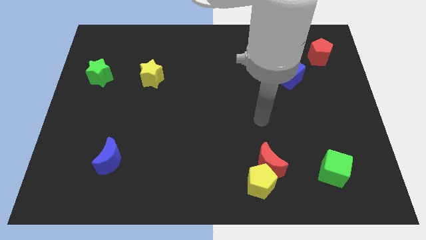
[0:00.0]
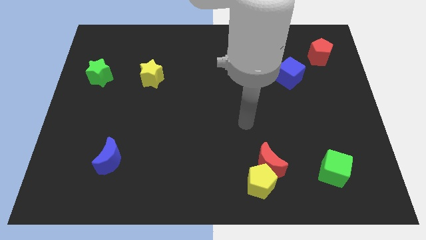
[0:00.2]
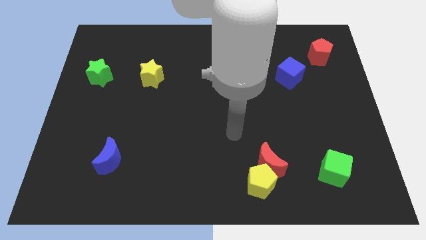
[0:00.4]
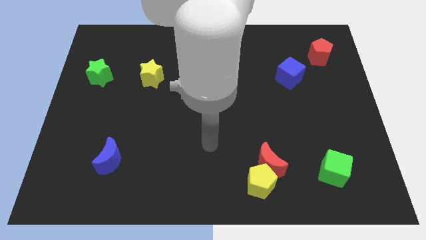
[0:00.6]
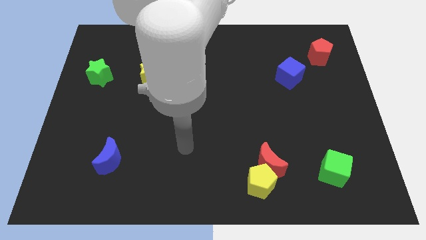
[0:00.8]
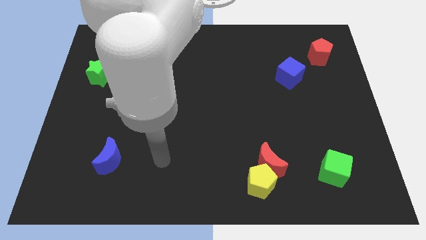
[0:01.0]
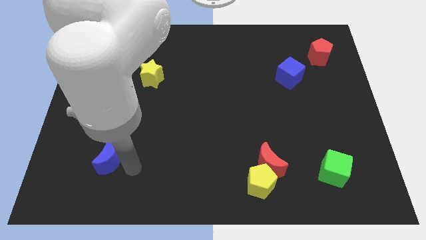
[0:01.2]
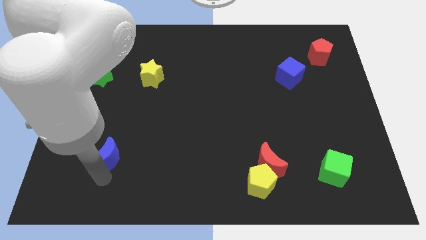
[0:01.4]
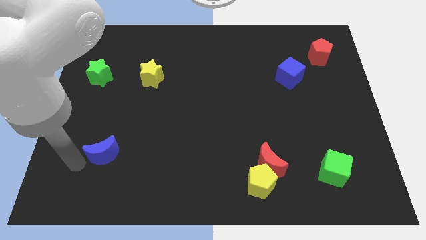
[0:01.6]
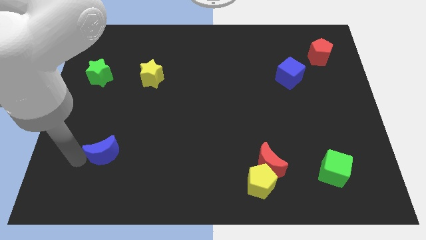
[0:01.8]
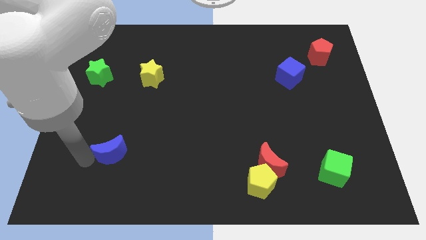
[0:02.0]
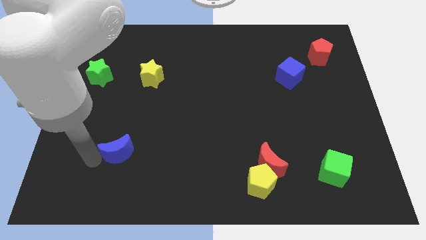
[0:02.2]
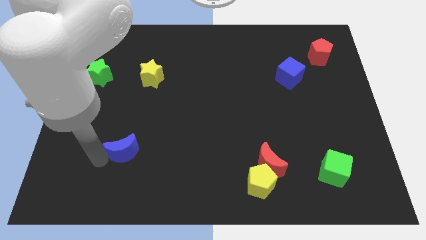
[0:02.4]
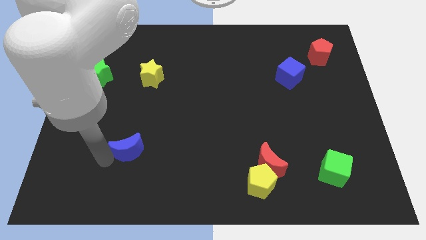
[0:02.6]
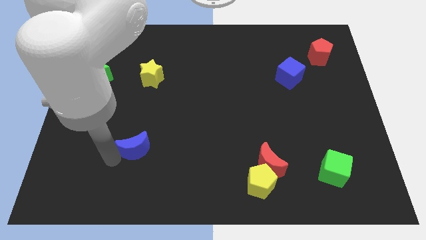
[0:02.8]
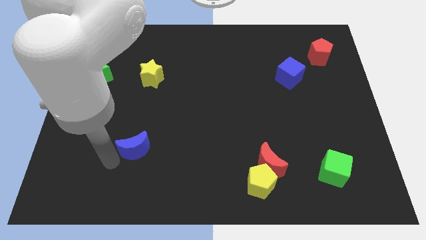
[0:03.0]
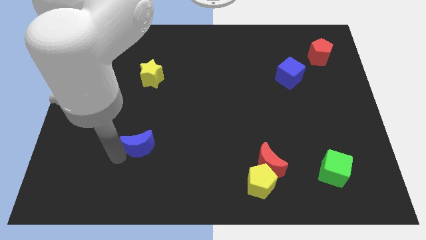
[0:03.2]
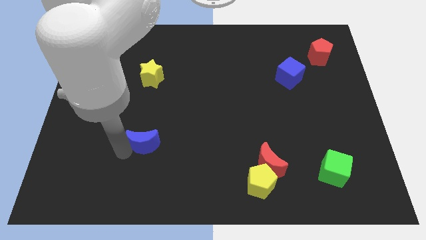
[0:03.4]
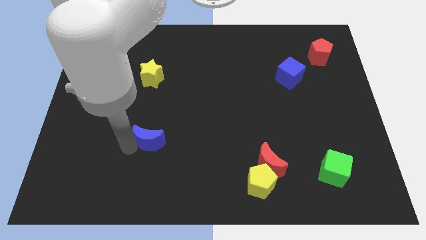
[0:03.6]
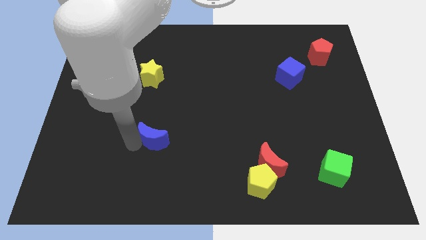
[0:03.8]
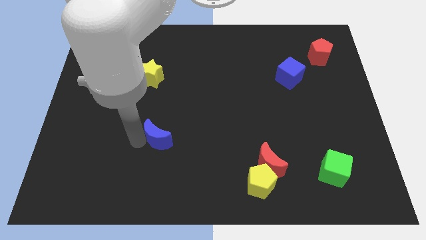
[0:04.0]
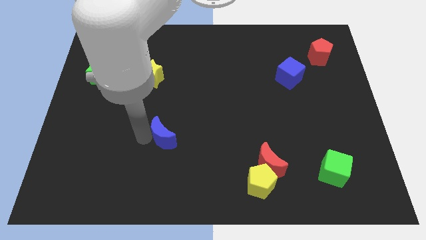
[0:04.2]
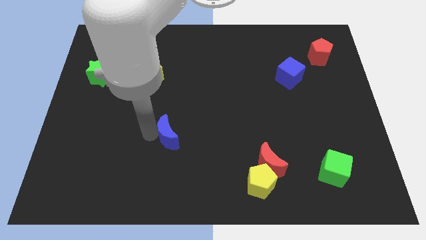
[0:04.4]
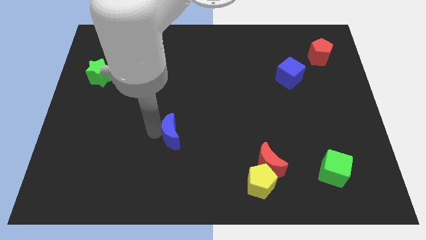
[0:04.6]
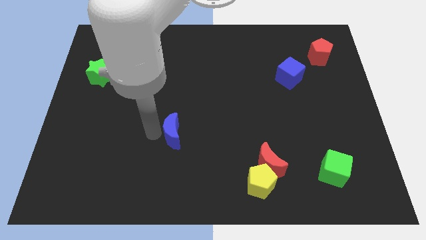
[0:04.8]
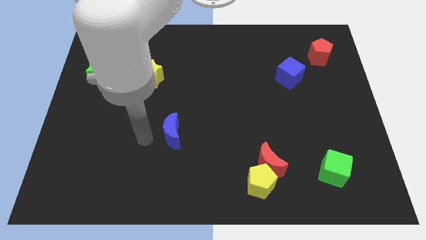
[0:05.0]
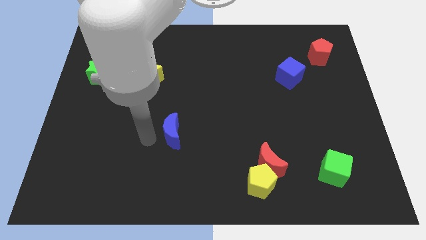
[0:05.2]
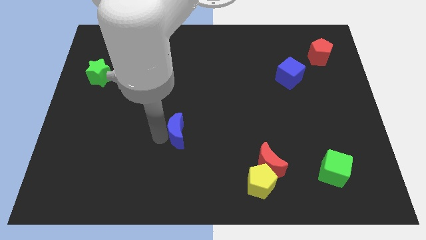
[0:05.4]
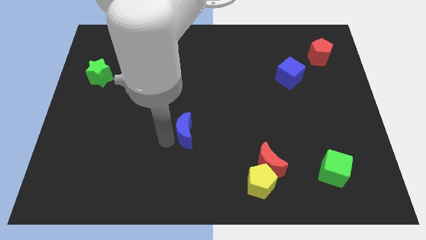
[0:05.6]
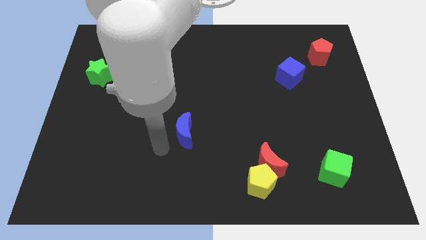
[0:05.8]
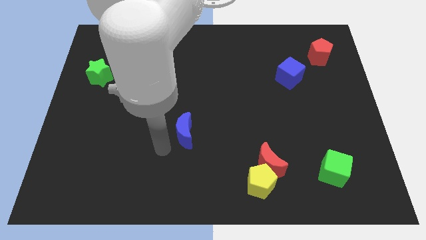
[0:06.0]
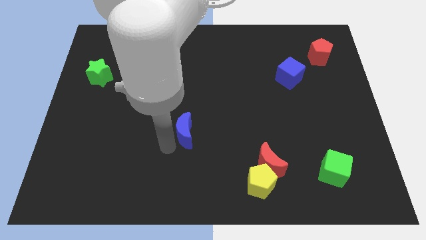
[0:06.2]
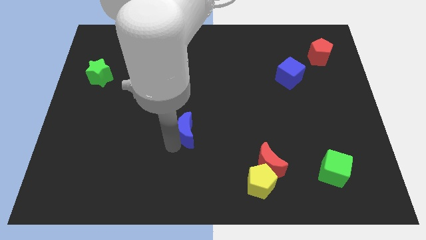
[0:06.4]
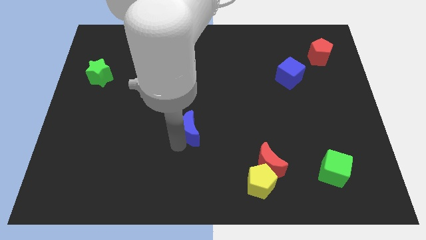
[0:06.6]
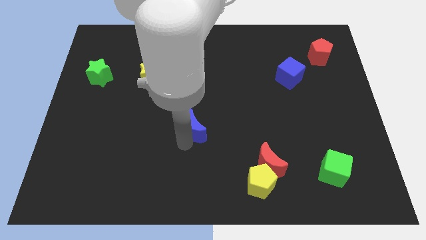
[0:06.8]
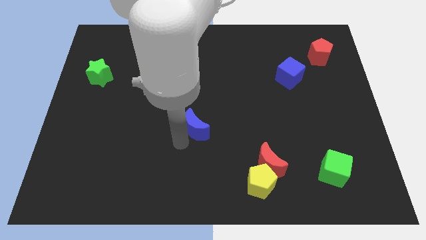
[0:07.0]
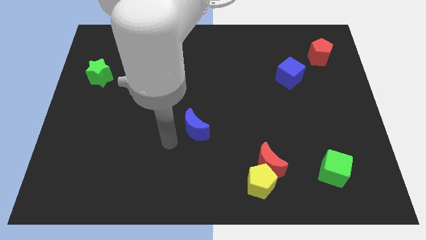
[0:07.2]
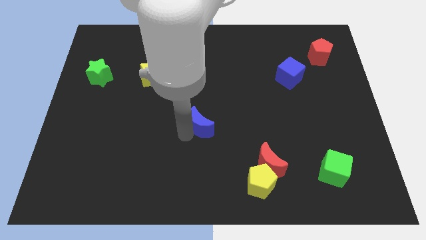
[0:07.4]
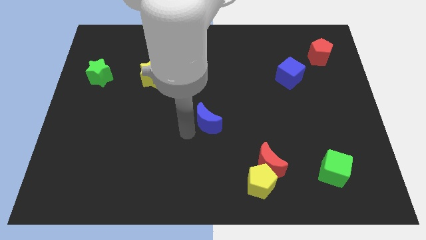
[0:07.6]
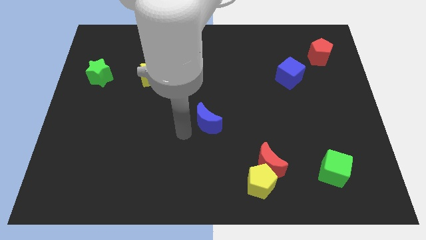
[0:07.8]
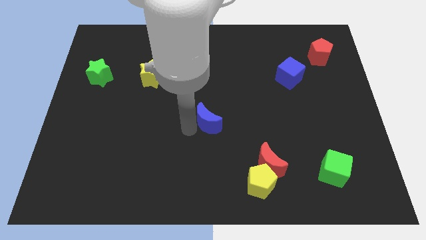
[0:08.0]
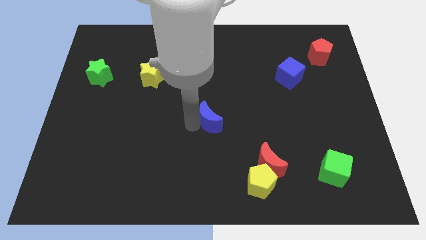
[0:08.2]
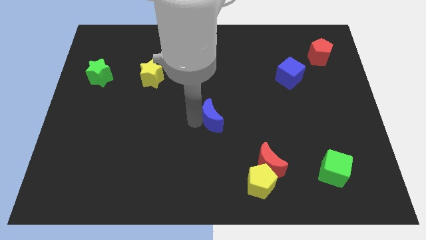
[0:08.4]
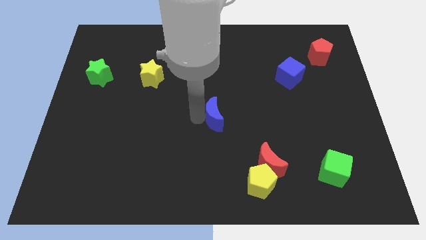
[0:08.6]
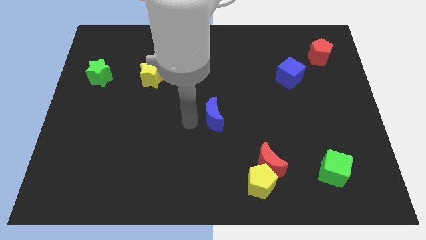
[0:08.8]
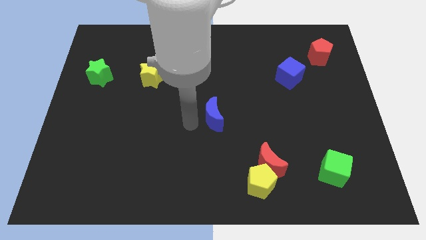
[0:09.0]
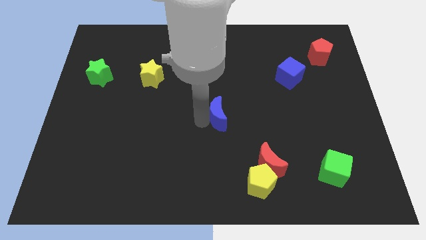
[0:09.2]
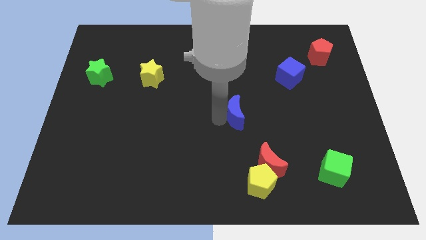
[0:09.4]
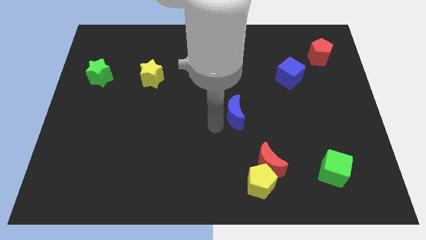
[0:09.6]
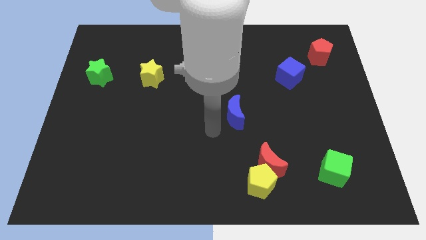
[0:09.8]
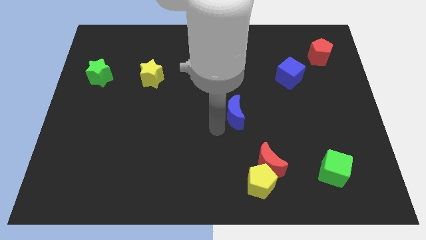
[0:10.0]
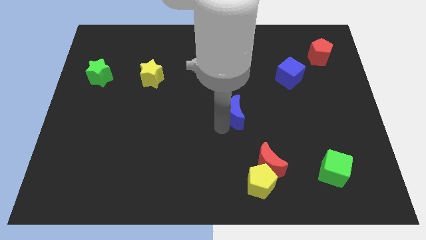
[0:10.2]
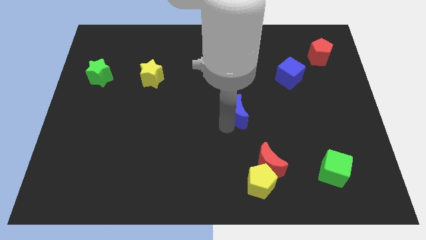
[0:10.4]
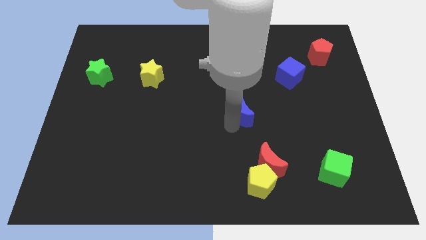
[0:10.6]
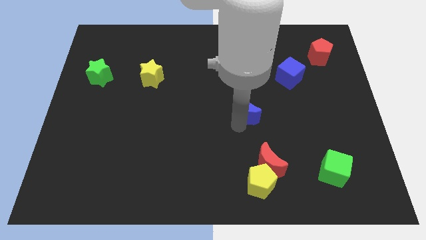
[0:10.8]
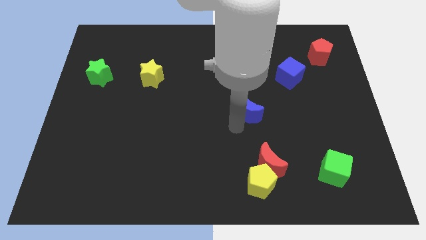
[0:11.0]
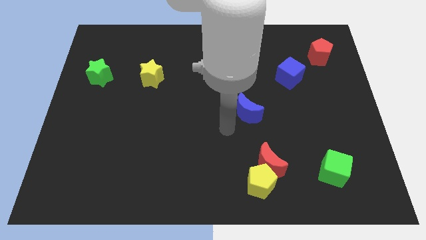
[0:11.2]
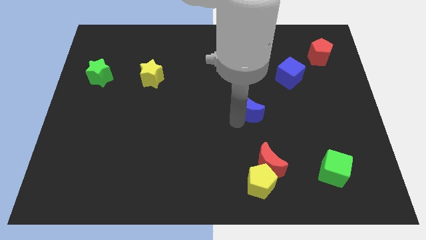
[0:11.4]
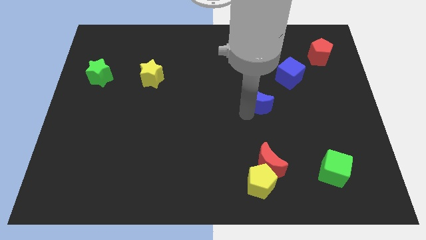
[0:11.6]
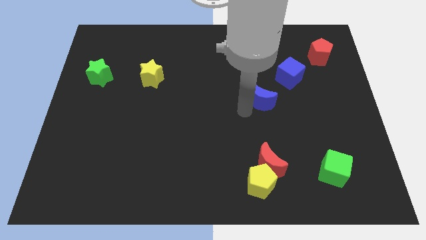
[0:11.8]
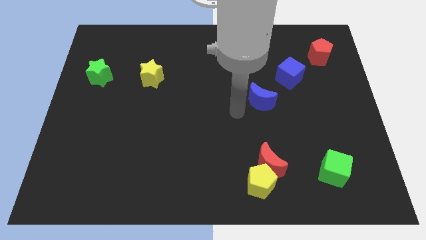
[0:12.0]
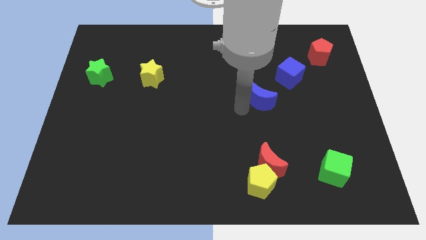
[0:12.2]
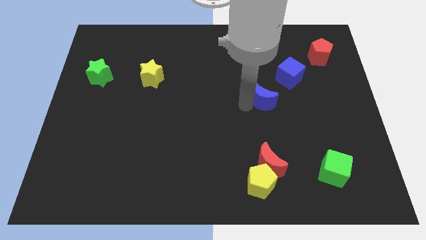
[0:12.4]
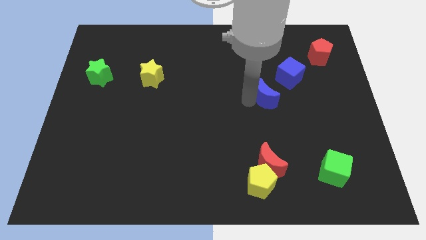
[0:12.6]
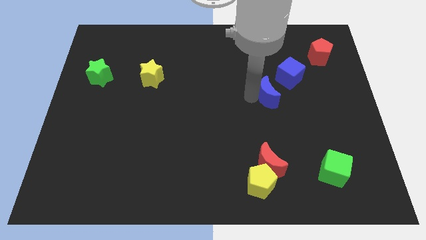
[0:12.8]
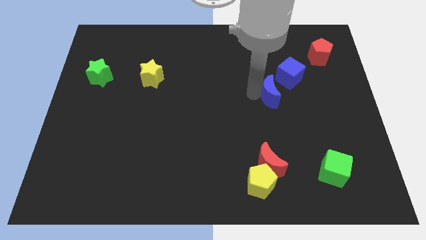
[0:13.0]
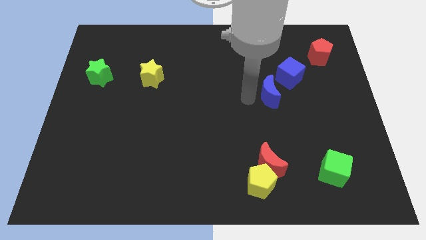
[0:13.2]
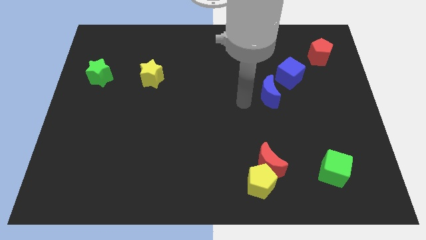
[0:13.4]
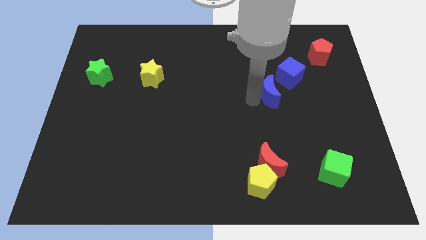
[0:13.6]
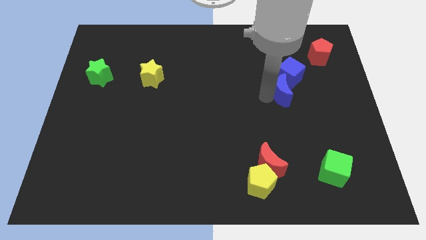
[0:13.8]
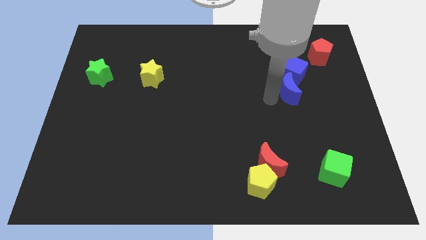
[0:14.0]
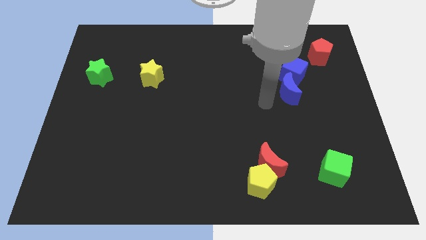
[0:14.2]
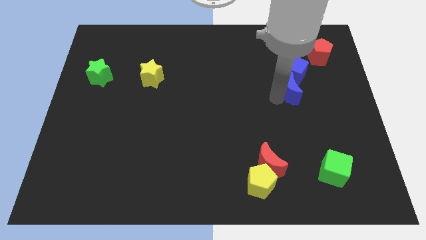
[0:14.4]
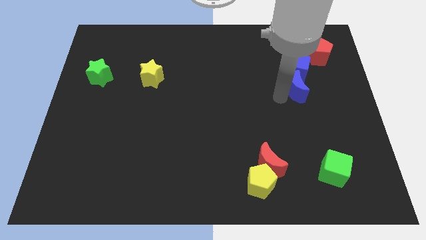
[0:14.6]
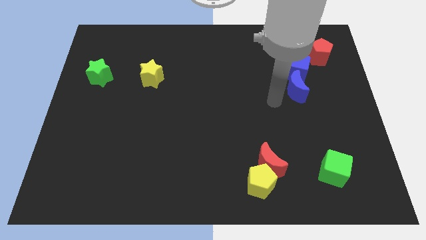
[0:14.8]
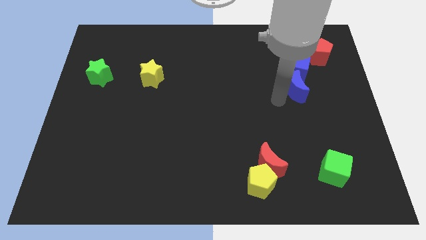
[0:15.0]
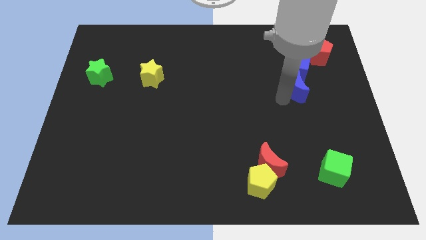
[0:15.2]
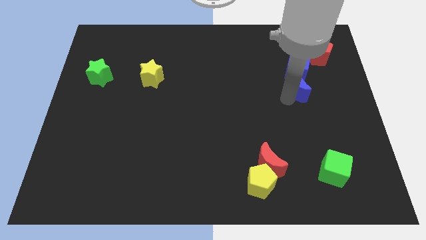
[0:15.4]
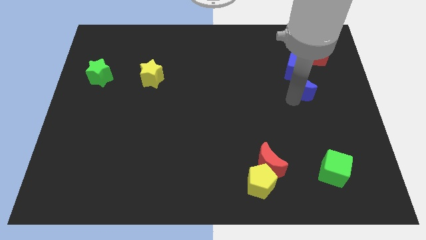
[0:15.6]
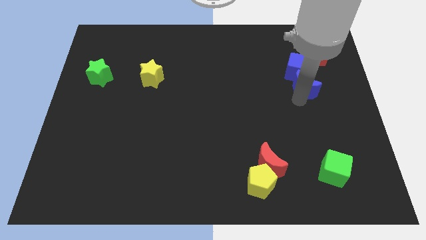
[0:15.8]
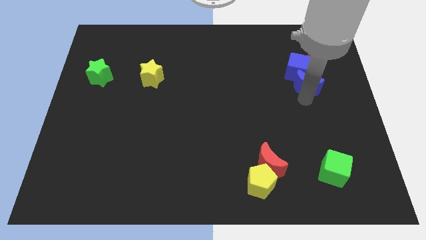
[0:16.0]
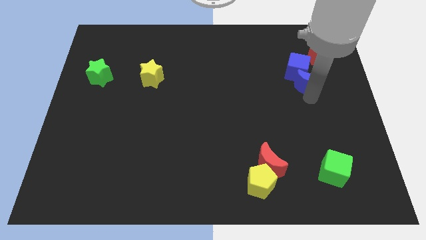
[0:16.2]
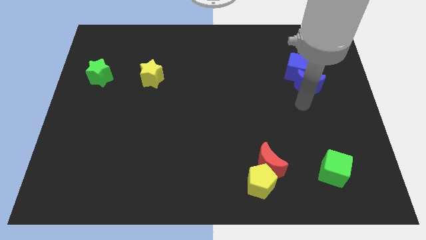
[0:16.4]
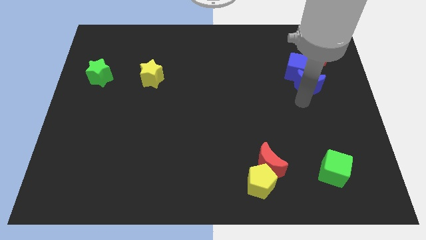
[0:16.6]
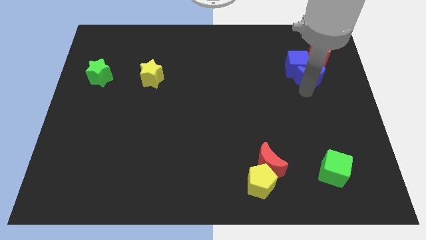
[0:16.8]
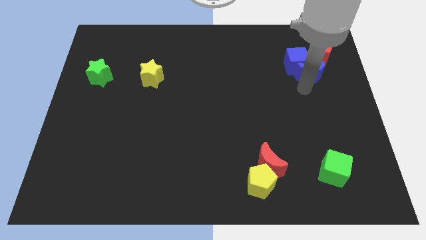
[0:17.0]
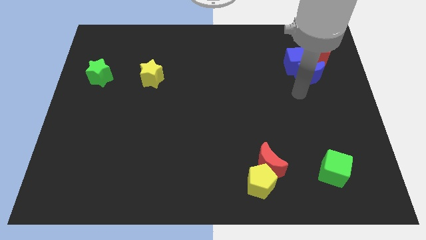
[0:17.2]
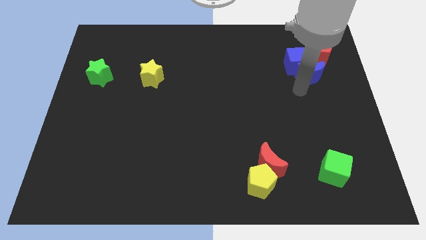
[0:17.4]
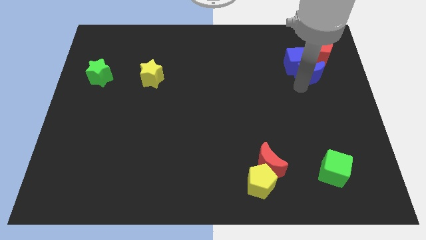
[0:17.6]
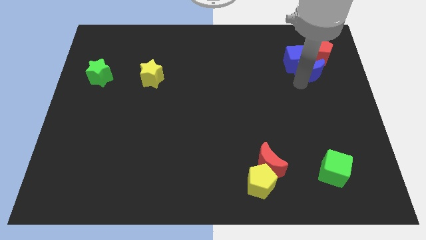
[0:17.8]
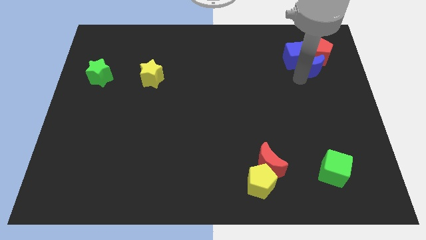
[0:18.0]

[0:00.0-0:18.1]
put the blue moon close to the red pentagon
